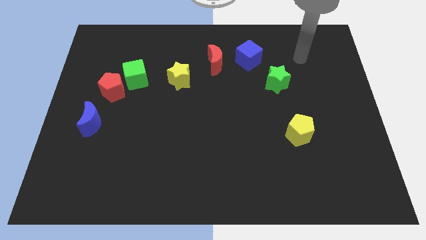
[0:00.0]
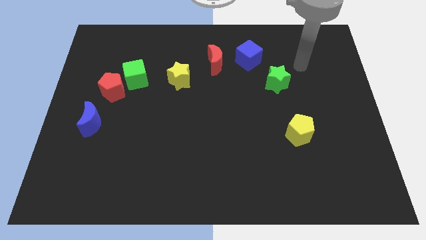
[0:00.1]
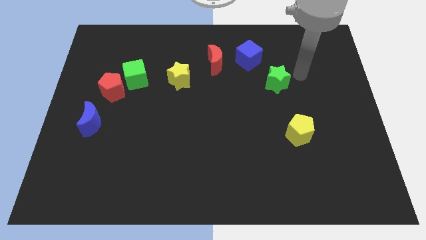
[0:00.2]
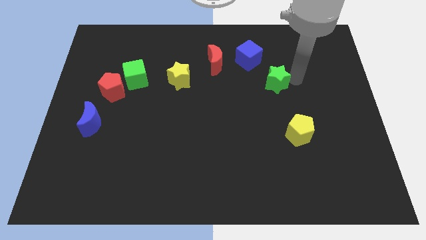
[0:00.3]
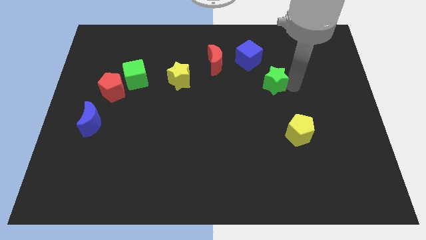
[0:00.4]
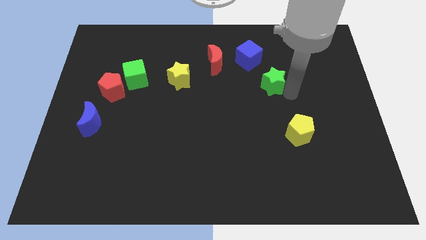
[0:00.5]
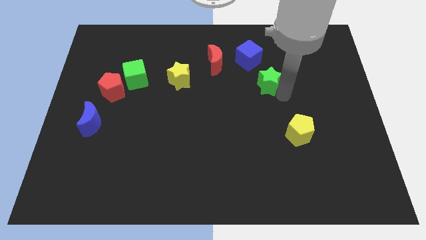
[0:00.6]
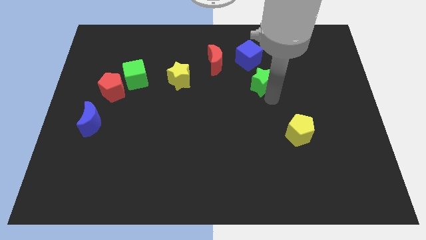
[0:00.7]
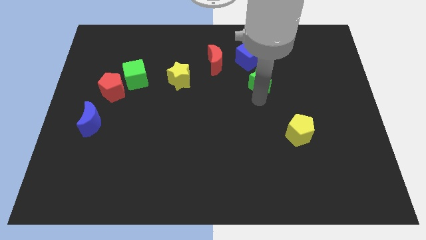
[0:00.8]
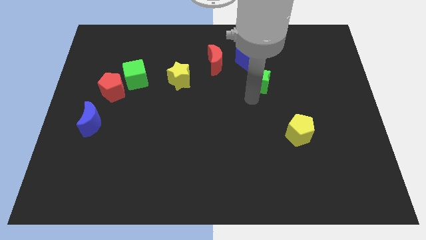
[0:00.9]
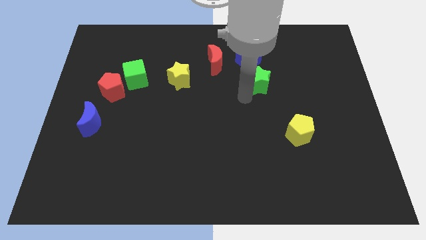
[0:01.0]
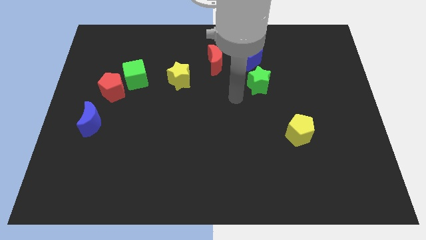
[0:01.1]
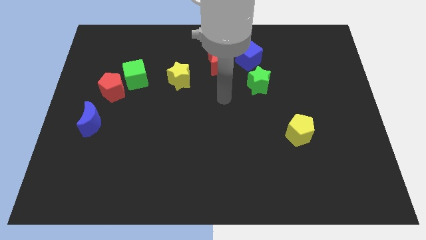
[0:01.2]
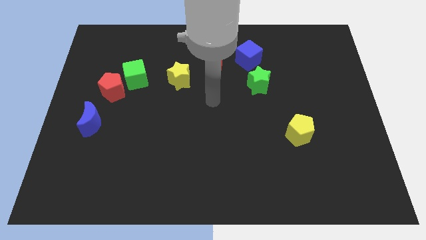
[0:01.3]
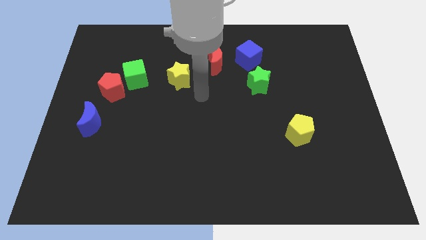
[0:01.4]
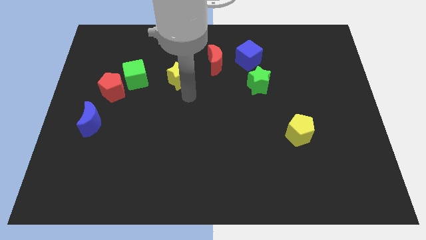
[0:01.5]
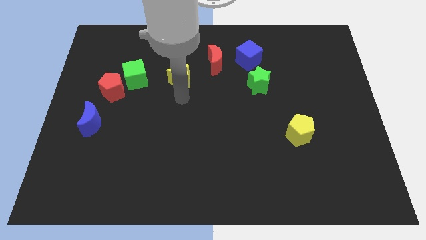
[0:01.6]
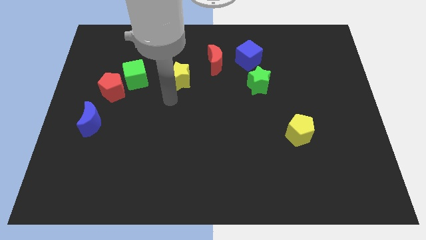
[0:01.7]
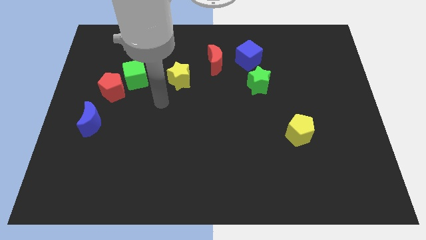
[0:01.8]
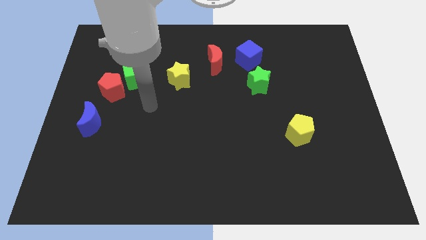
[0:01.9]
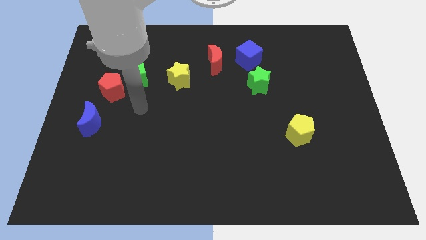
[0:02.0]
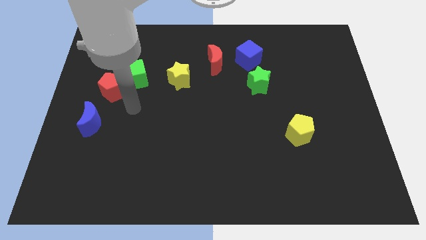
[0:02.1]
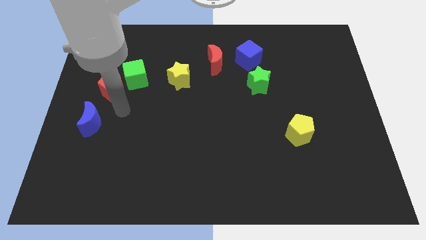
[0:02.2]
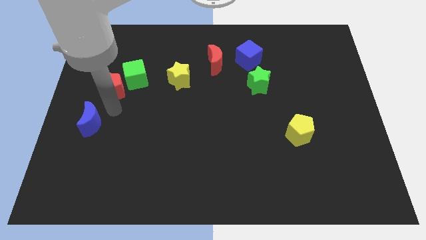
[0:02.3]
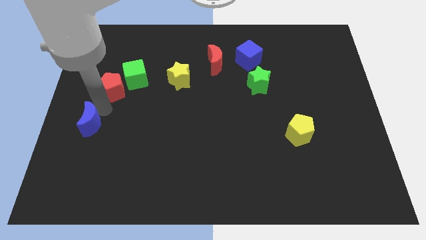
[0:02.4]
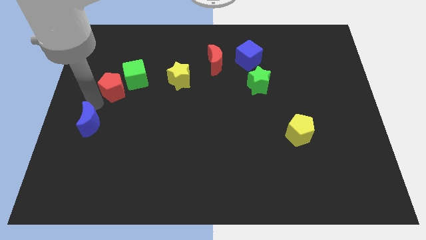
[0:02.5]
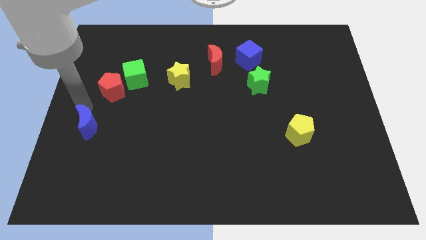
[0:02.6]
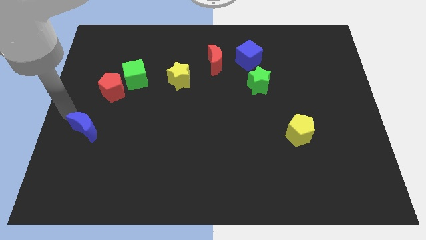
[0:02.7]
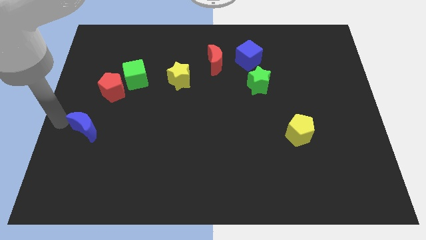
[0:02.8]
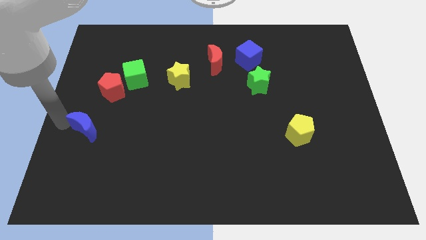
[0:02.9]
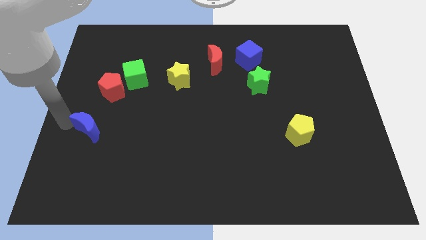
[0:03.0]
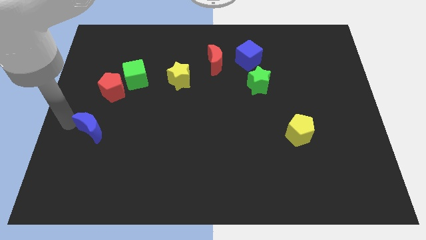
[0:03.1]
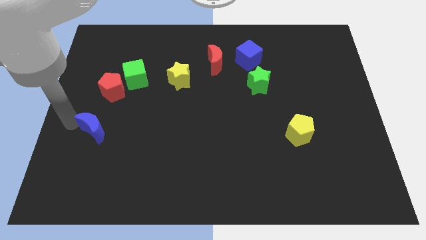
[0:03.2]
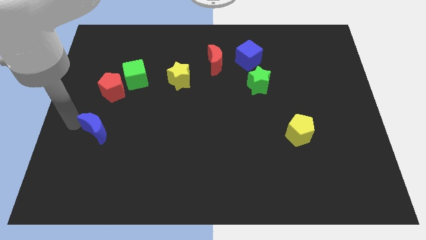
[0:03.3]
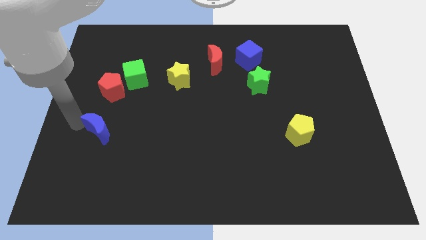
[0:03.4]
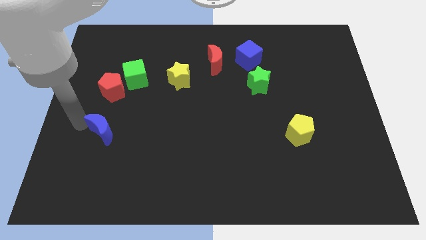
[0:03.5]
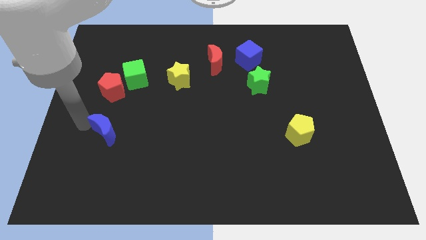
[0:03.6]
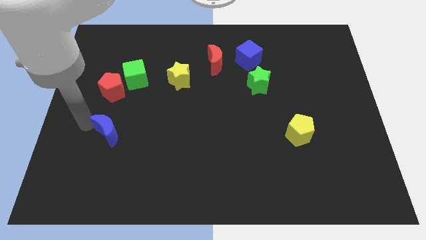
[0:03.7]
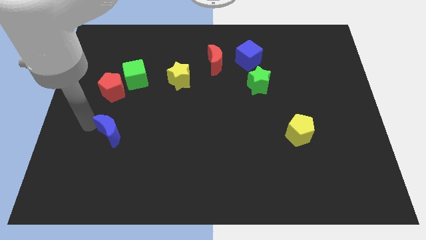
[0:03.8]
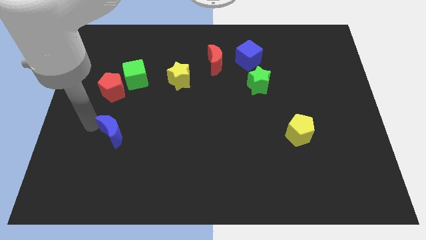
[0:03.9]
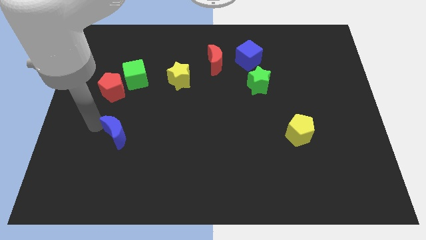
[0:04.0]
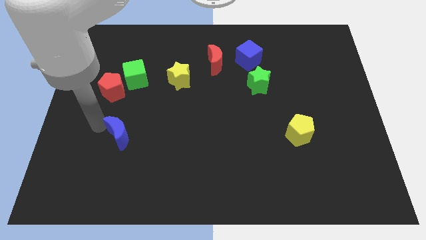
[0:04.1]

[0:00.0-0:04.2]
slide the blue moon down and to the right diagonally slightly

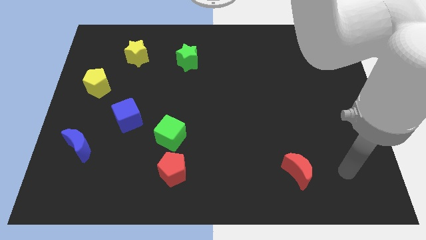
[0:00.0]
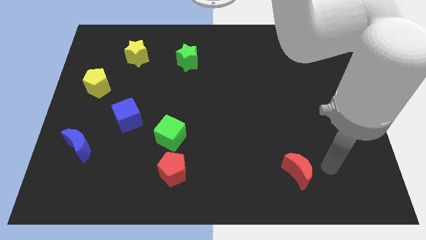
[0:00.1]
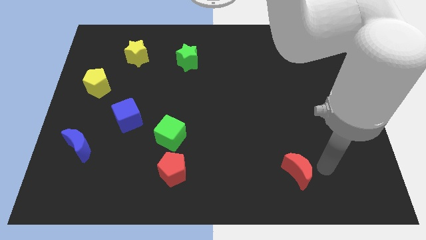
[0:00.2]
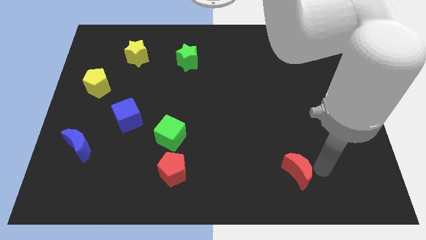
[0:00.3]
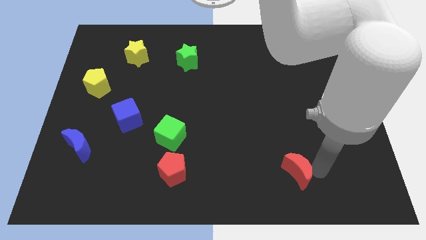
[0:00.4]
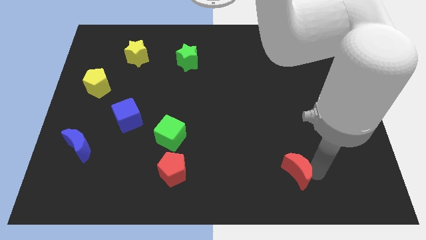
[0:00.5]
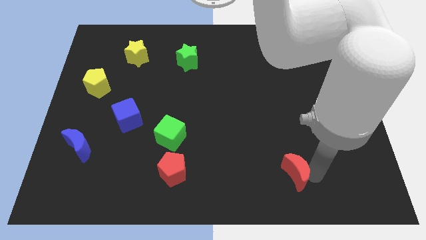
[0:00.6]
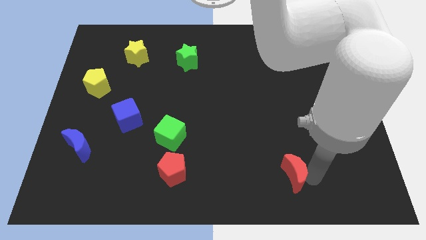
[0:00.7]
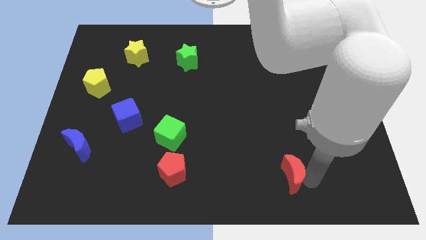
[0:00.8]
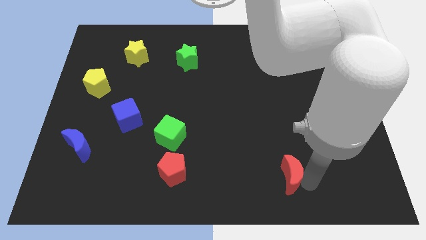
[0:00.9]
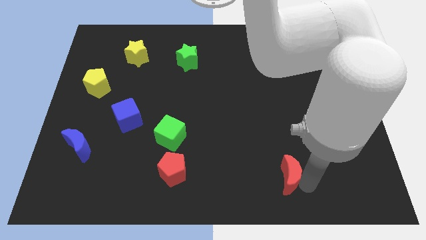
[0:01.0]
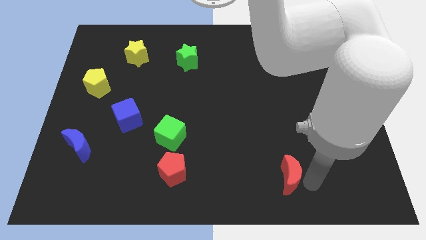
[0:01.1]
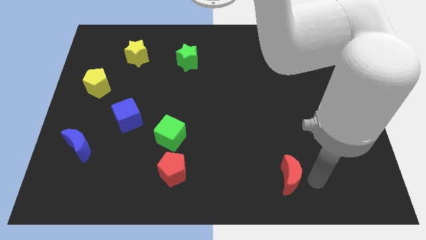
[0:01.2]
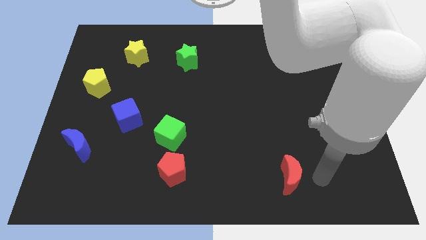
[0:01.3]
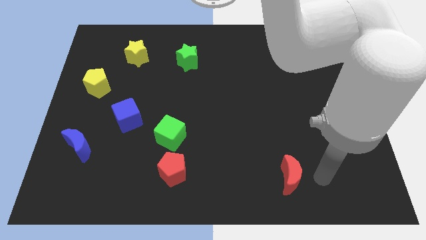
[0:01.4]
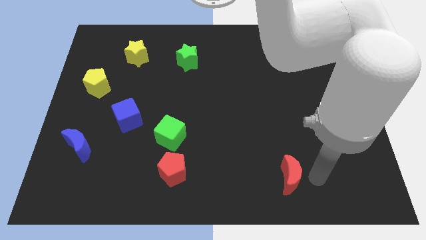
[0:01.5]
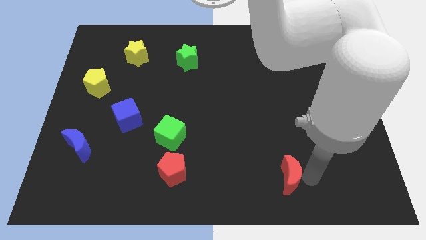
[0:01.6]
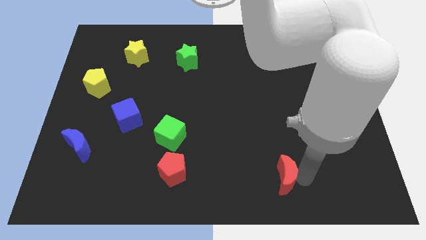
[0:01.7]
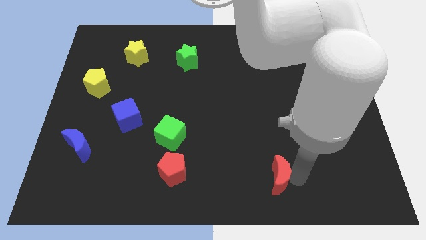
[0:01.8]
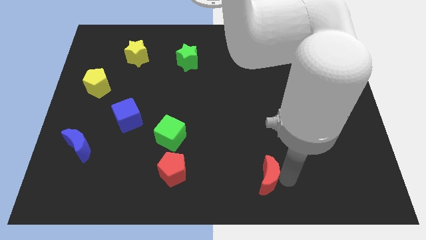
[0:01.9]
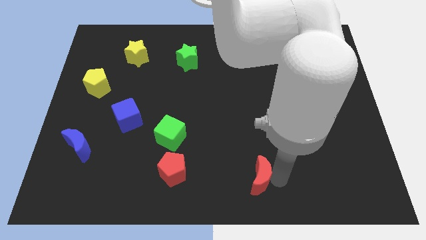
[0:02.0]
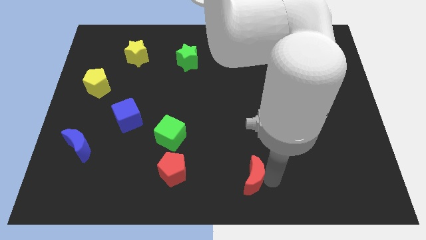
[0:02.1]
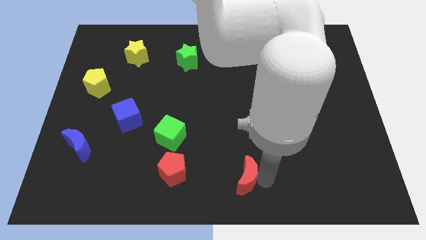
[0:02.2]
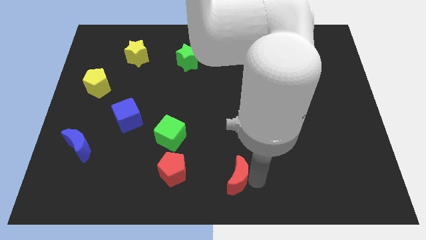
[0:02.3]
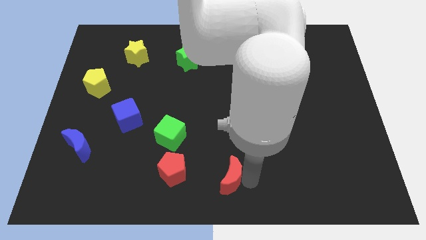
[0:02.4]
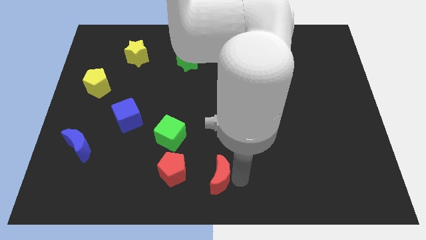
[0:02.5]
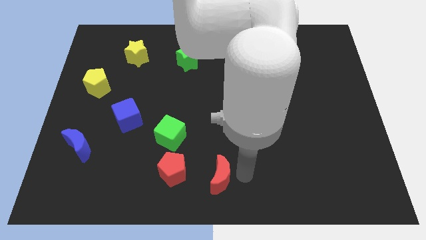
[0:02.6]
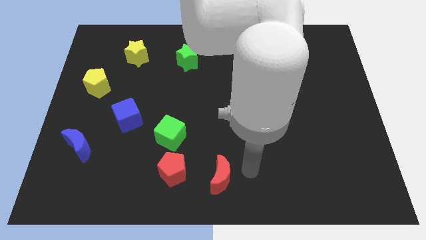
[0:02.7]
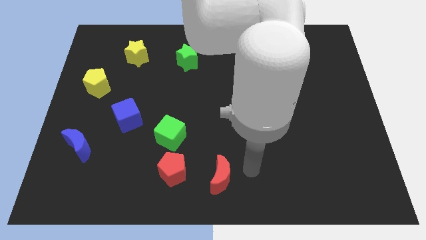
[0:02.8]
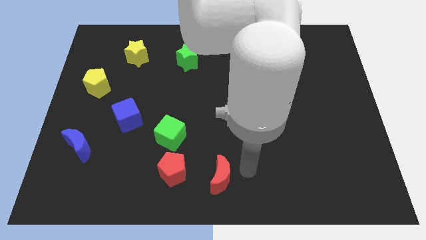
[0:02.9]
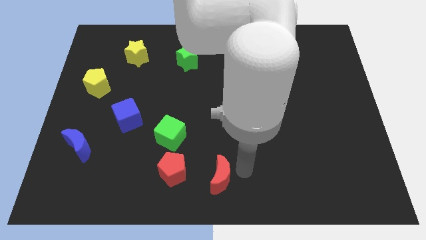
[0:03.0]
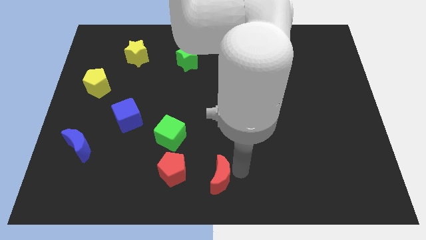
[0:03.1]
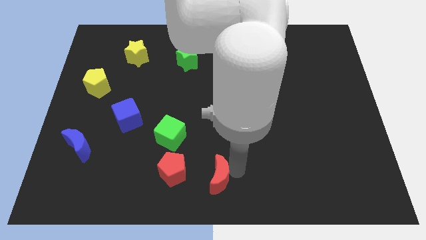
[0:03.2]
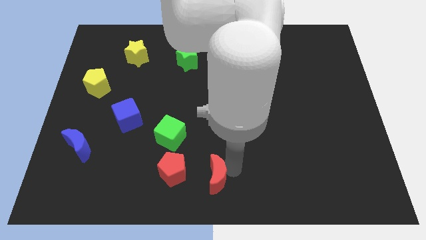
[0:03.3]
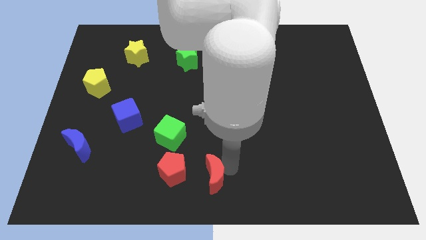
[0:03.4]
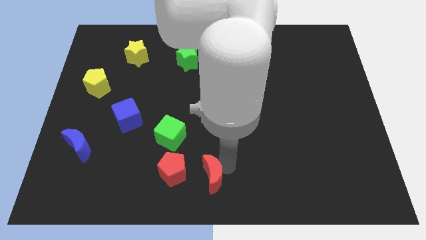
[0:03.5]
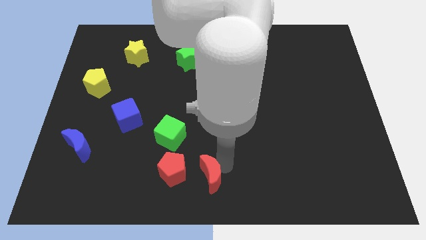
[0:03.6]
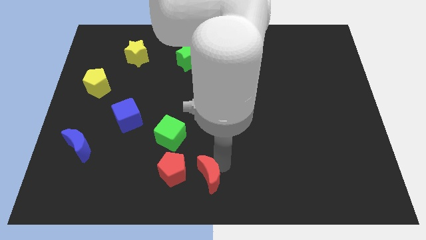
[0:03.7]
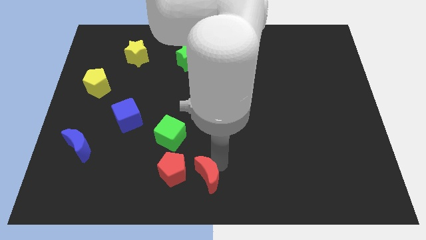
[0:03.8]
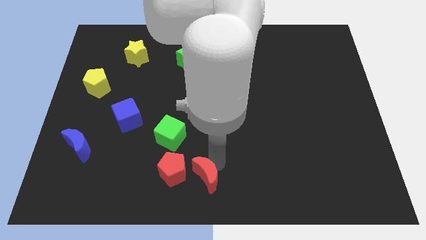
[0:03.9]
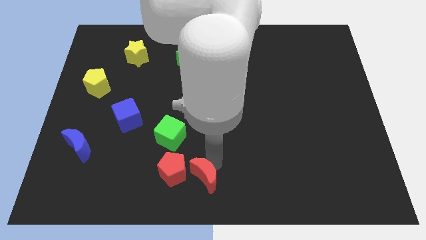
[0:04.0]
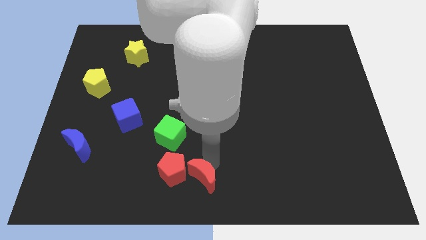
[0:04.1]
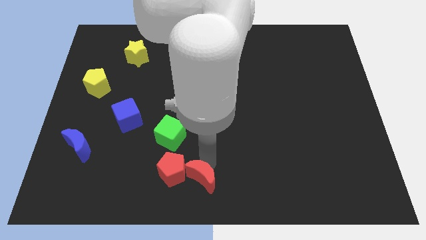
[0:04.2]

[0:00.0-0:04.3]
slide the red moon to the left
